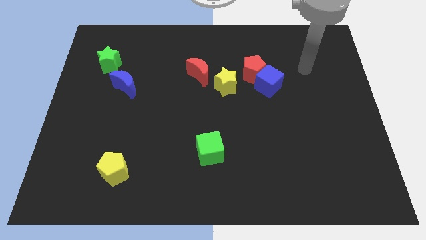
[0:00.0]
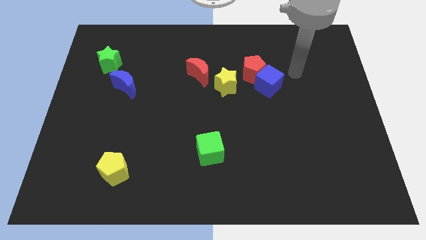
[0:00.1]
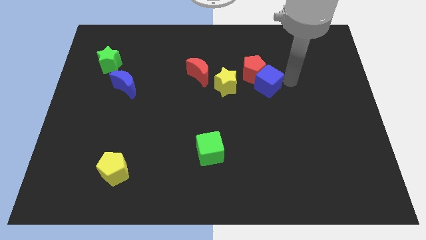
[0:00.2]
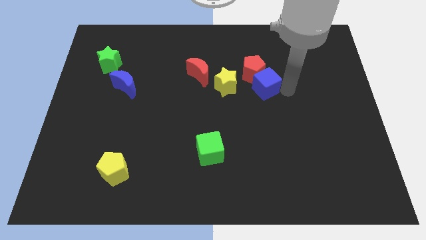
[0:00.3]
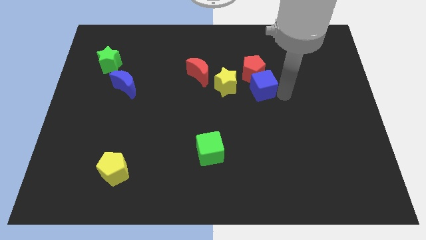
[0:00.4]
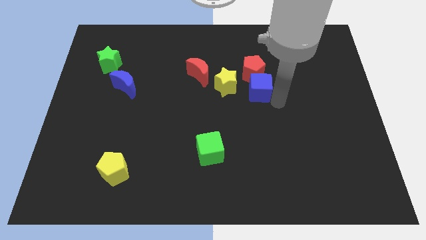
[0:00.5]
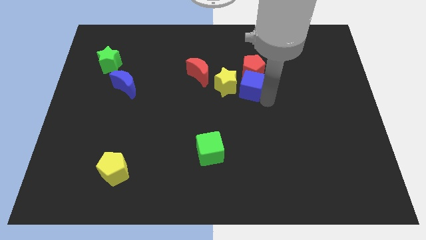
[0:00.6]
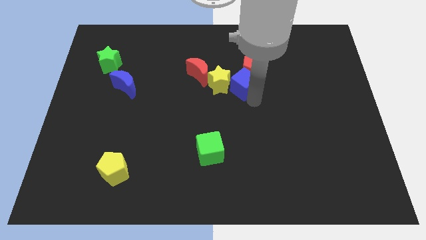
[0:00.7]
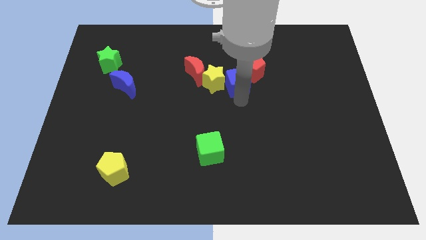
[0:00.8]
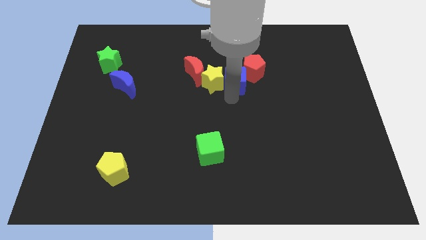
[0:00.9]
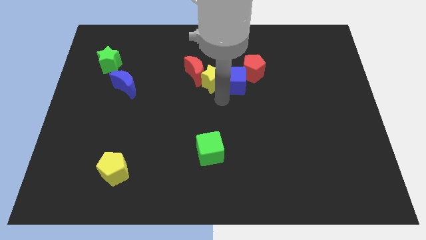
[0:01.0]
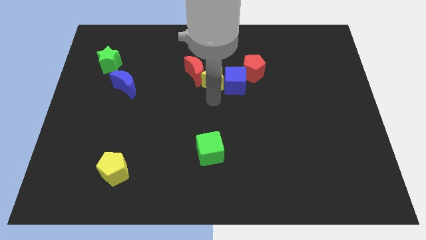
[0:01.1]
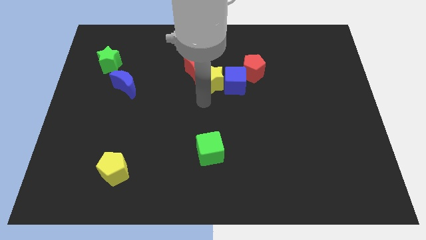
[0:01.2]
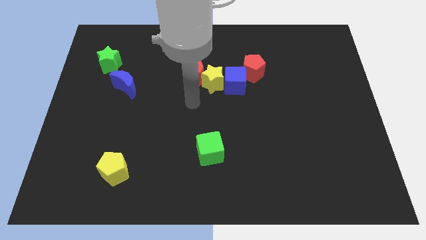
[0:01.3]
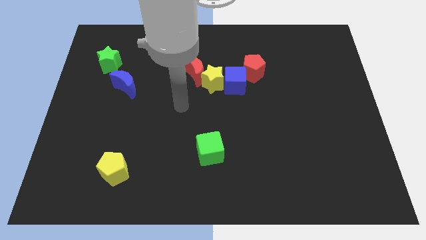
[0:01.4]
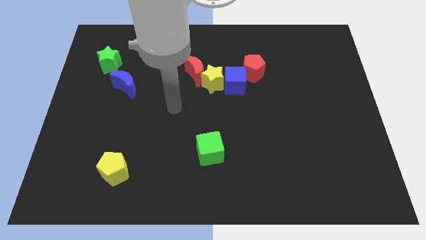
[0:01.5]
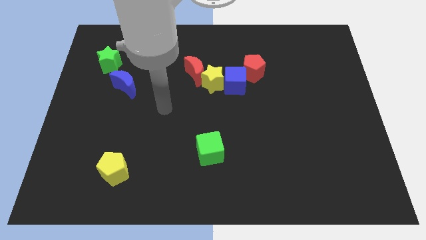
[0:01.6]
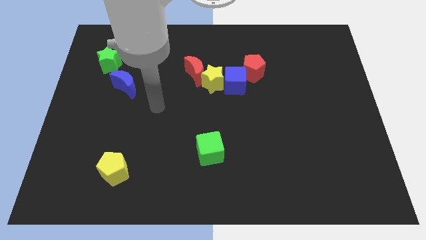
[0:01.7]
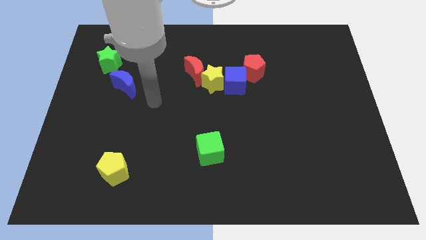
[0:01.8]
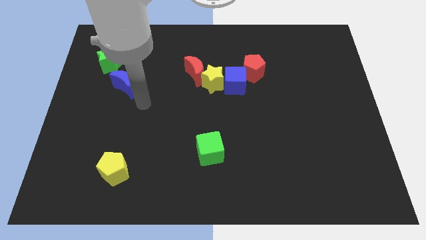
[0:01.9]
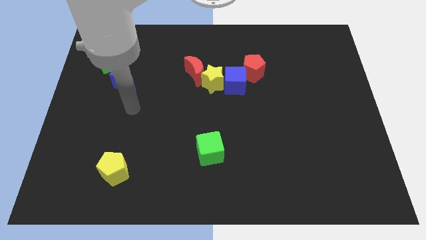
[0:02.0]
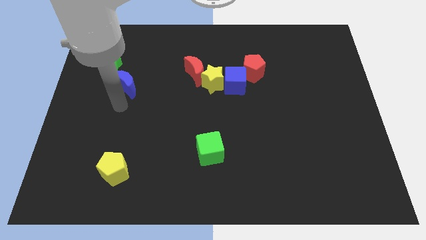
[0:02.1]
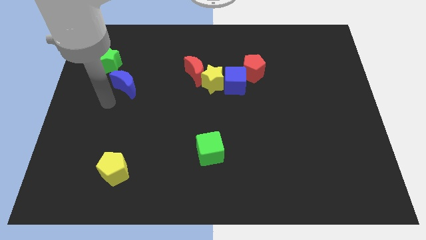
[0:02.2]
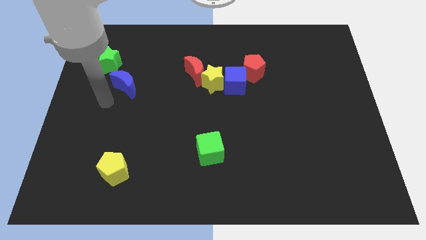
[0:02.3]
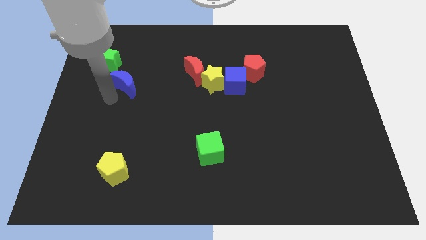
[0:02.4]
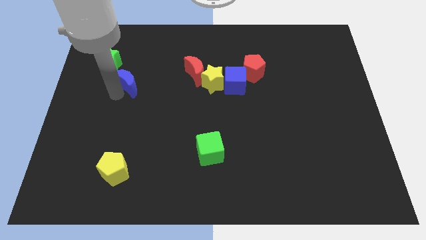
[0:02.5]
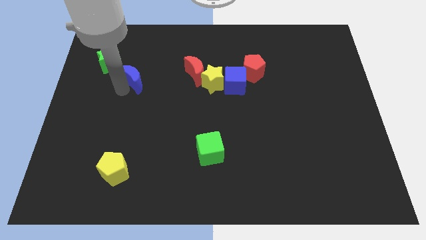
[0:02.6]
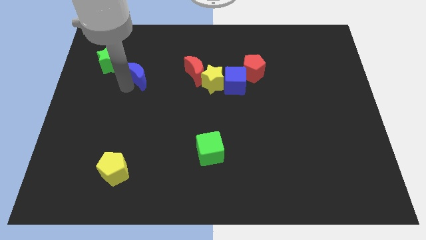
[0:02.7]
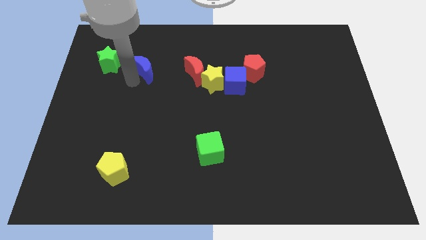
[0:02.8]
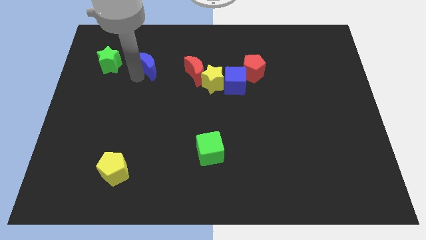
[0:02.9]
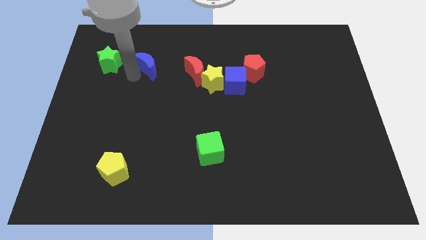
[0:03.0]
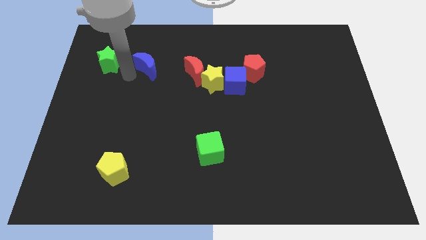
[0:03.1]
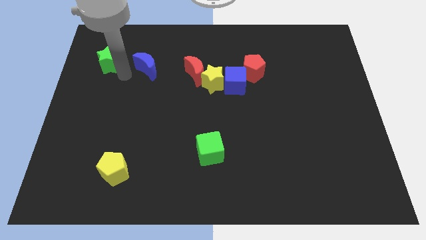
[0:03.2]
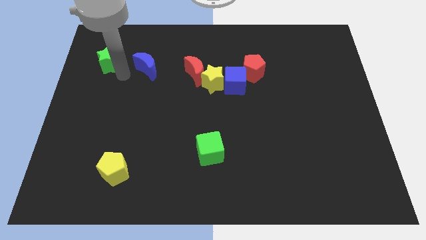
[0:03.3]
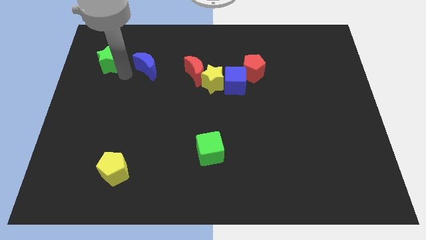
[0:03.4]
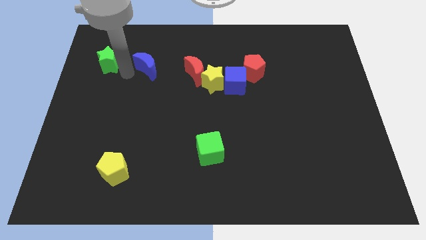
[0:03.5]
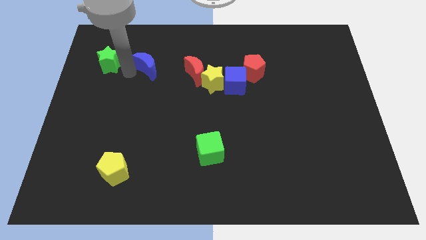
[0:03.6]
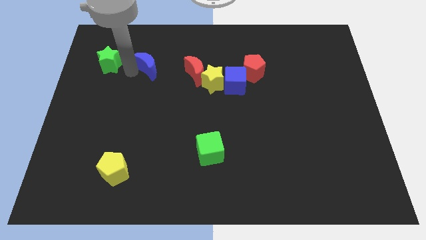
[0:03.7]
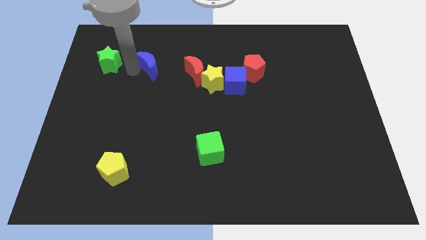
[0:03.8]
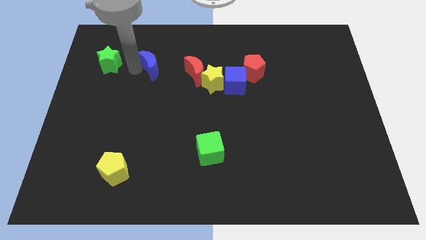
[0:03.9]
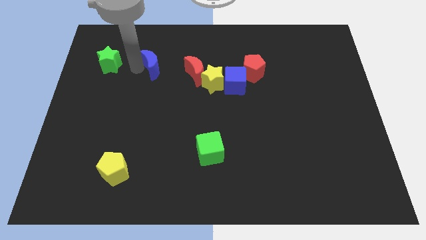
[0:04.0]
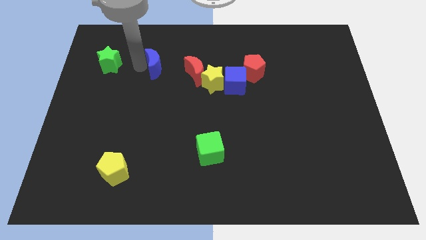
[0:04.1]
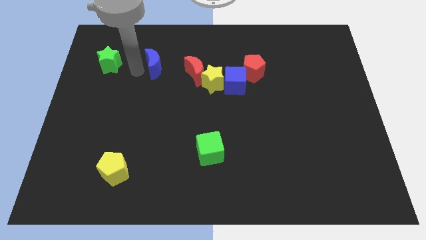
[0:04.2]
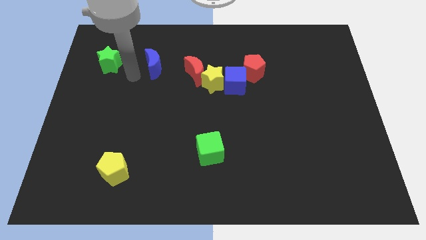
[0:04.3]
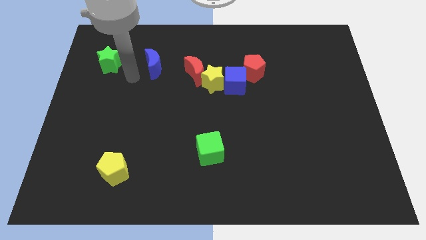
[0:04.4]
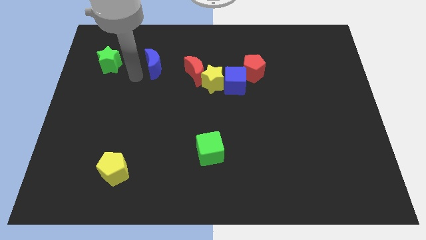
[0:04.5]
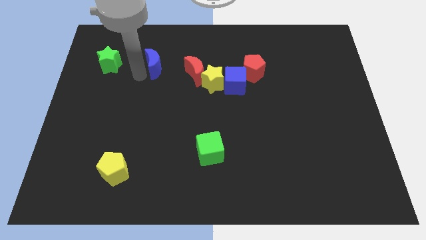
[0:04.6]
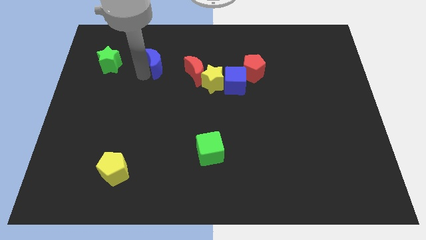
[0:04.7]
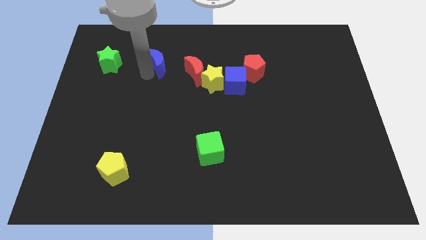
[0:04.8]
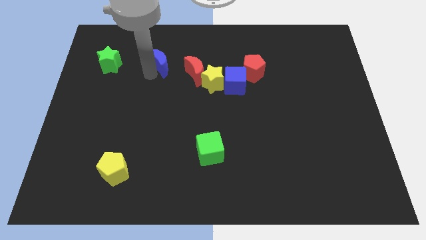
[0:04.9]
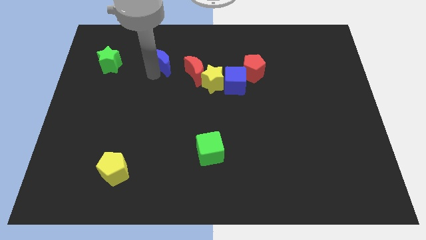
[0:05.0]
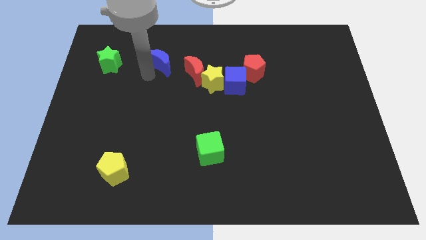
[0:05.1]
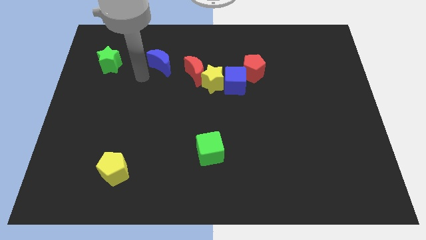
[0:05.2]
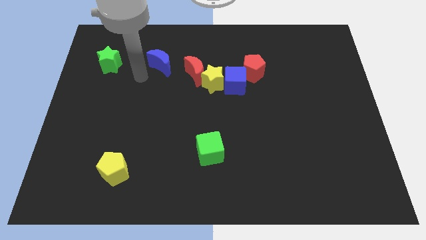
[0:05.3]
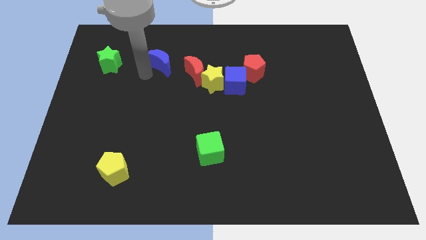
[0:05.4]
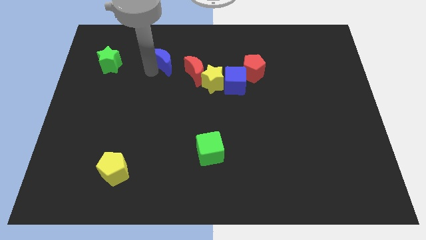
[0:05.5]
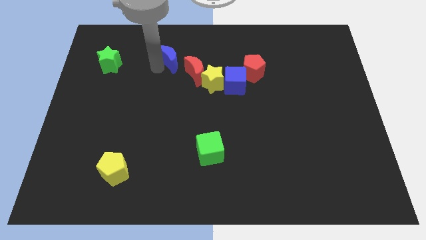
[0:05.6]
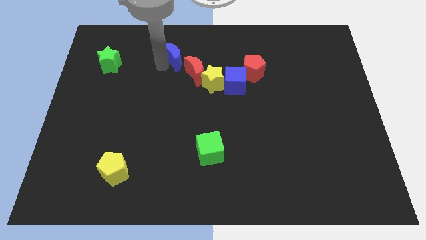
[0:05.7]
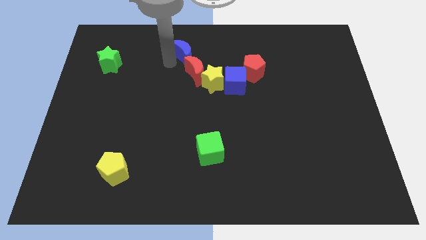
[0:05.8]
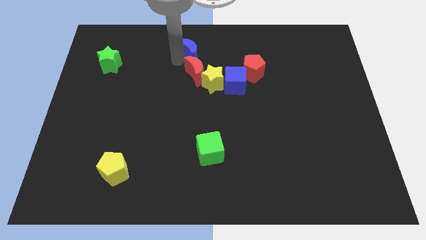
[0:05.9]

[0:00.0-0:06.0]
move the blue moon to the top side
